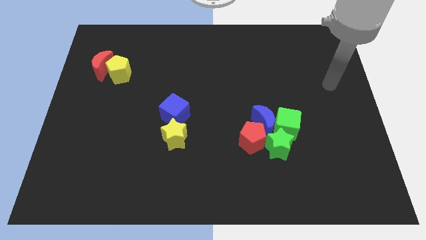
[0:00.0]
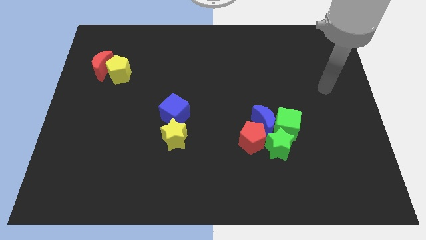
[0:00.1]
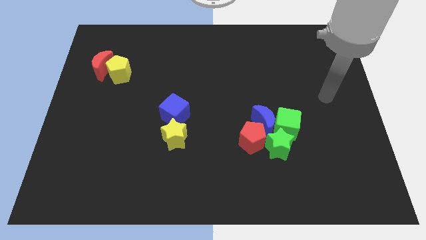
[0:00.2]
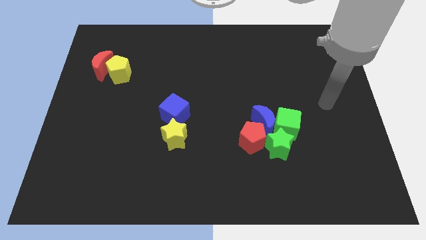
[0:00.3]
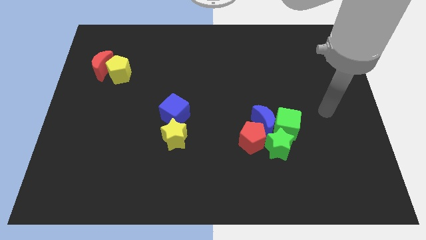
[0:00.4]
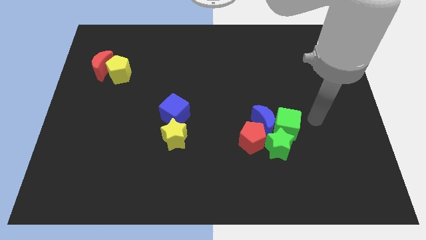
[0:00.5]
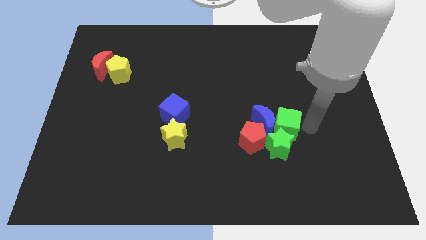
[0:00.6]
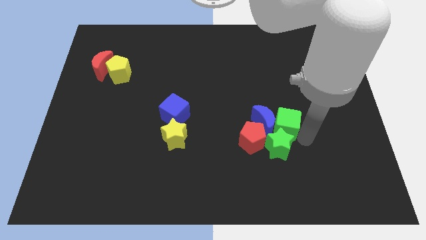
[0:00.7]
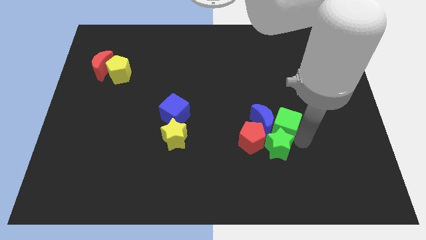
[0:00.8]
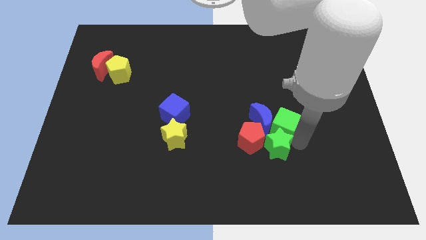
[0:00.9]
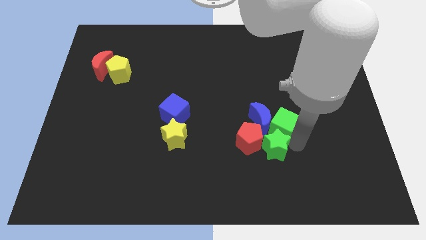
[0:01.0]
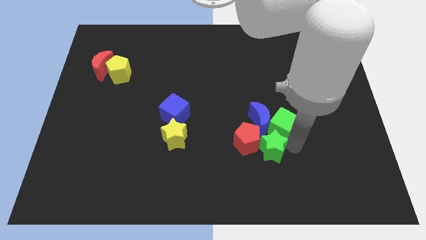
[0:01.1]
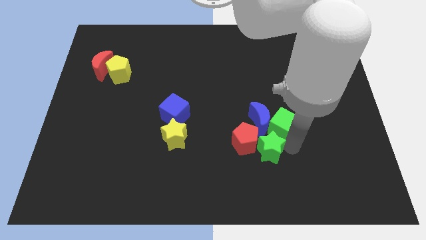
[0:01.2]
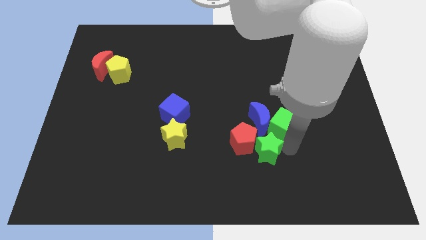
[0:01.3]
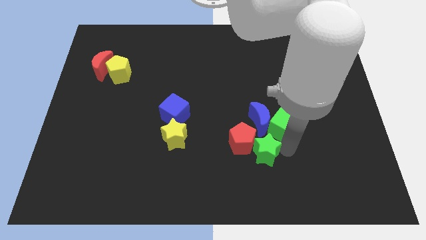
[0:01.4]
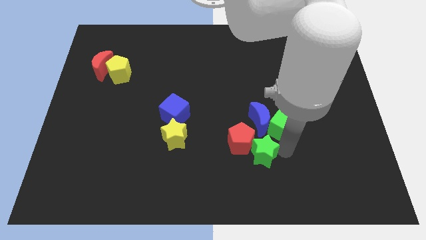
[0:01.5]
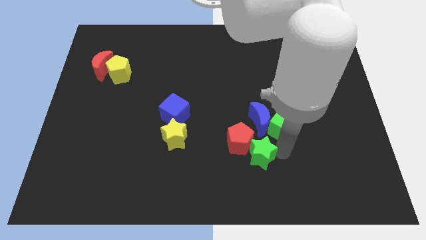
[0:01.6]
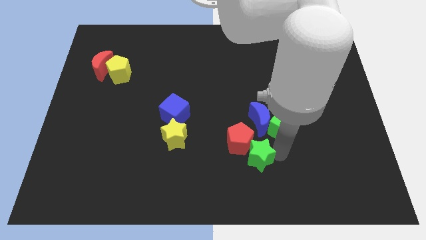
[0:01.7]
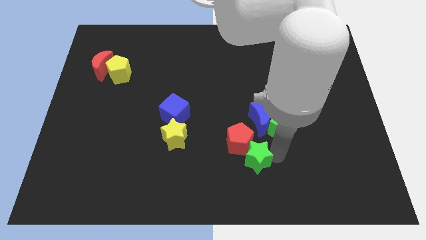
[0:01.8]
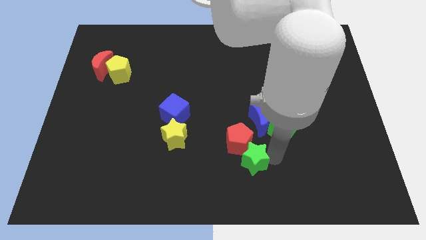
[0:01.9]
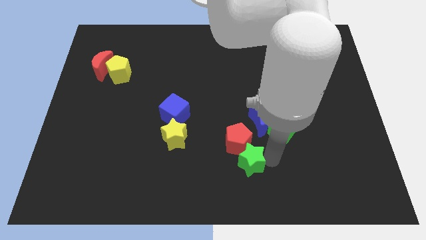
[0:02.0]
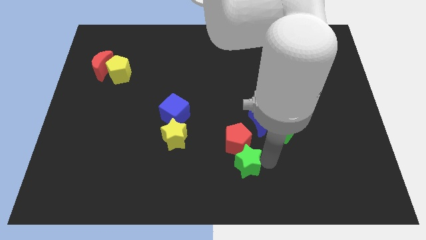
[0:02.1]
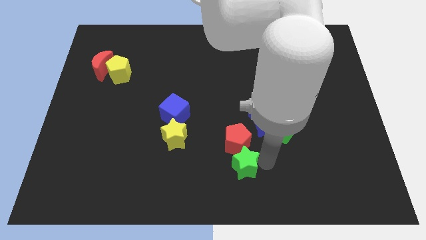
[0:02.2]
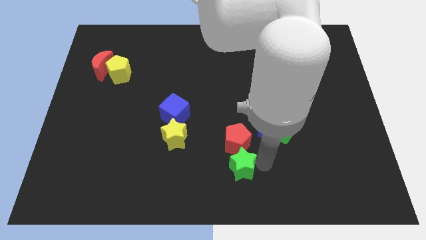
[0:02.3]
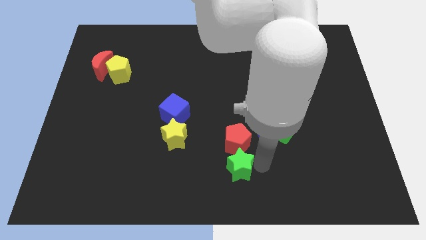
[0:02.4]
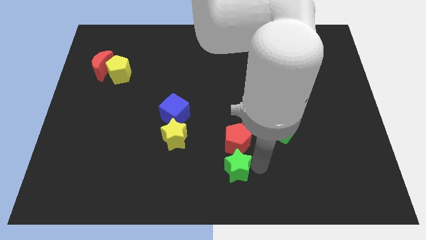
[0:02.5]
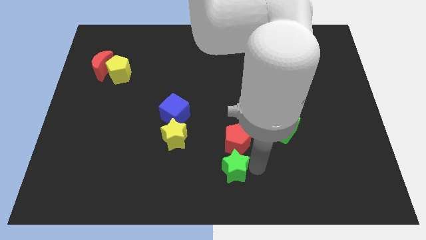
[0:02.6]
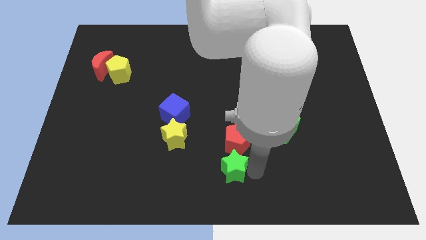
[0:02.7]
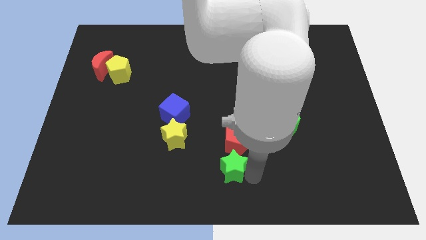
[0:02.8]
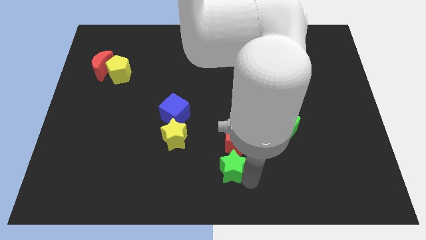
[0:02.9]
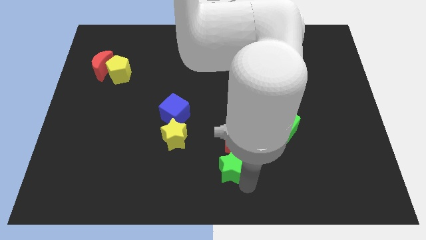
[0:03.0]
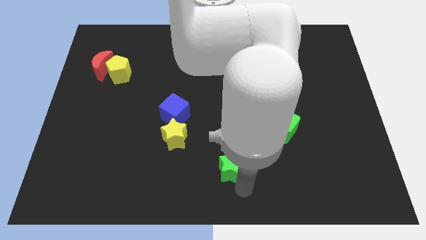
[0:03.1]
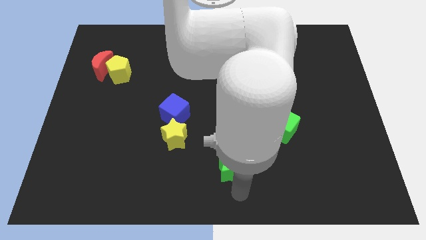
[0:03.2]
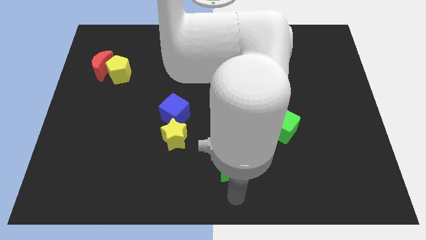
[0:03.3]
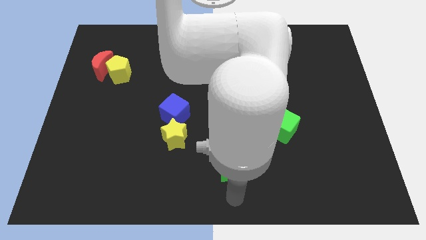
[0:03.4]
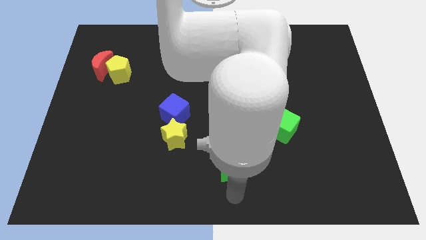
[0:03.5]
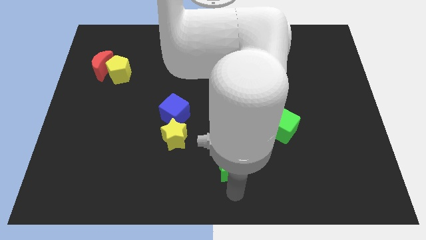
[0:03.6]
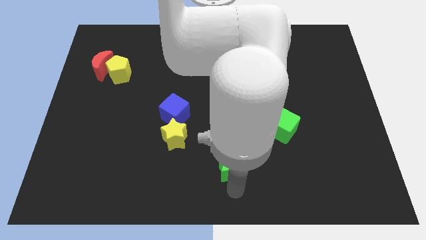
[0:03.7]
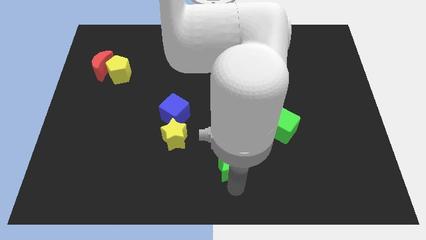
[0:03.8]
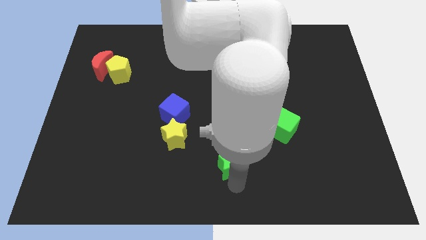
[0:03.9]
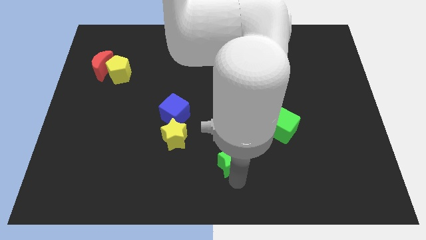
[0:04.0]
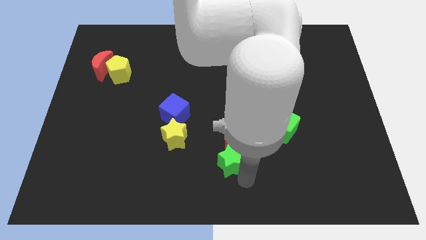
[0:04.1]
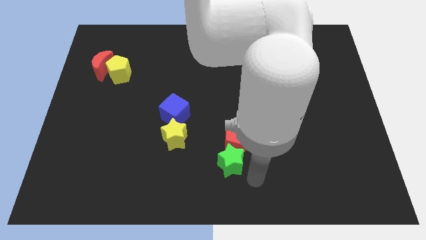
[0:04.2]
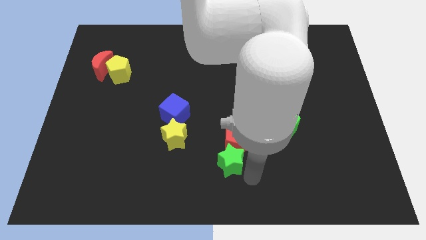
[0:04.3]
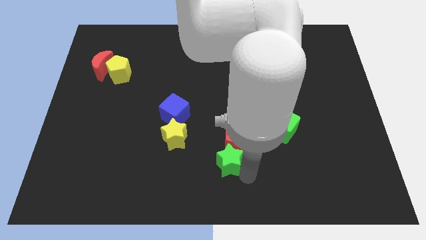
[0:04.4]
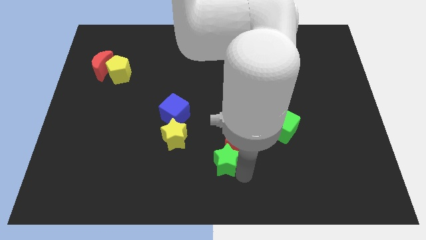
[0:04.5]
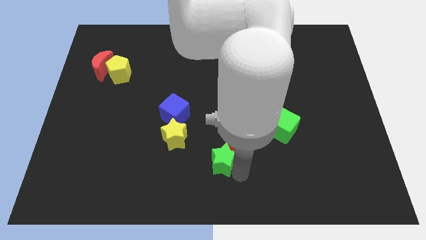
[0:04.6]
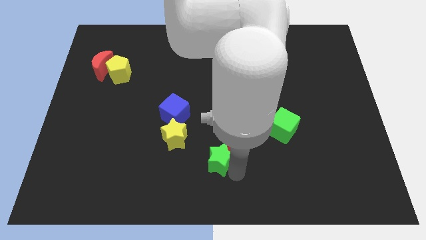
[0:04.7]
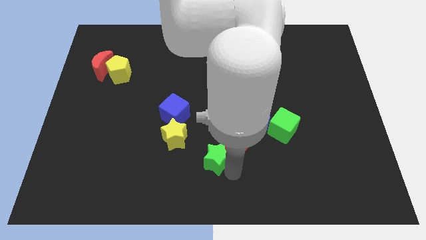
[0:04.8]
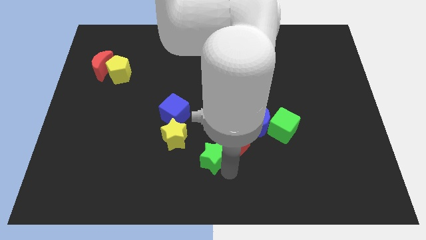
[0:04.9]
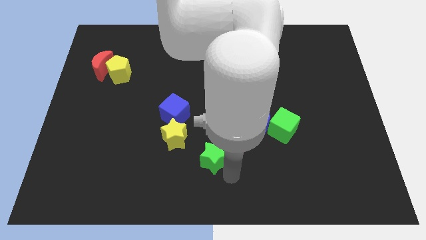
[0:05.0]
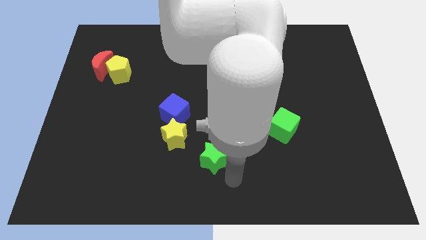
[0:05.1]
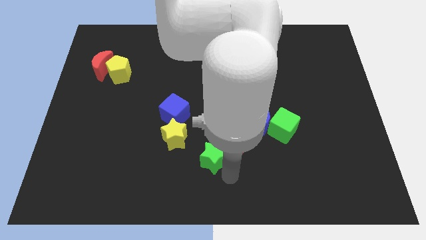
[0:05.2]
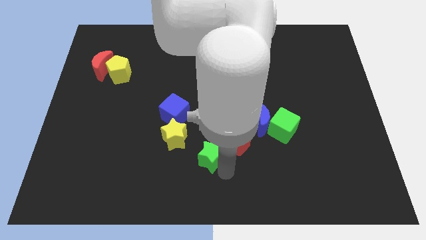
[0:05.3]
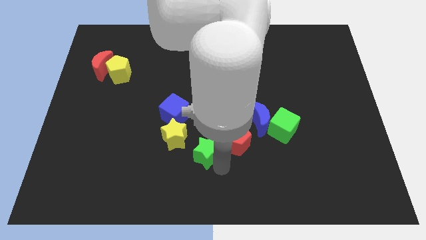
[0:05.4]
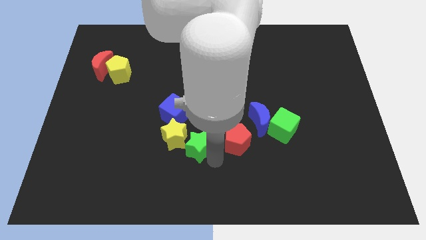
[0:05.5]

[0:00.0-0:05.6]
move the green star to the yellow star

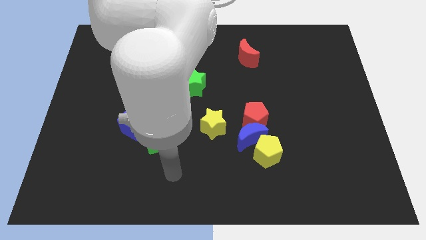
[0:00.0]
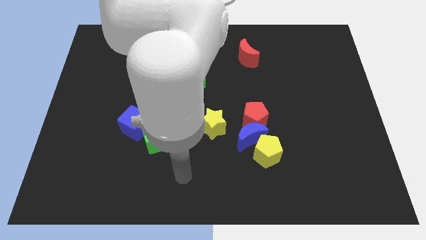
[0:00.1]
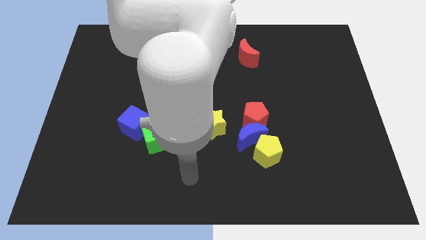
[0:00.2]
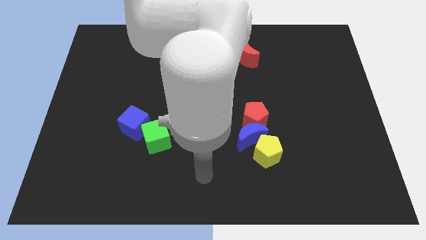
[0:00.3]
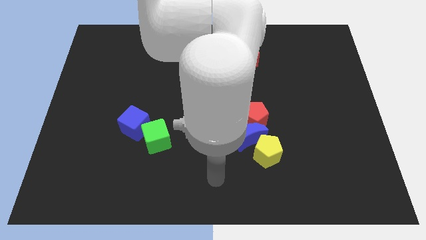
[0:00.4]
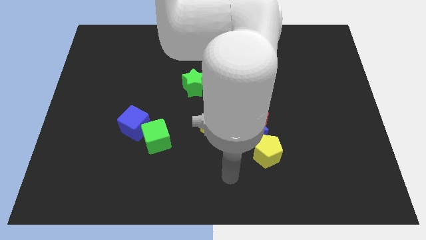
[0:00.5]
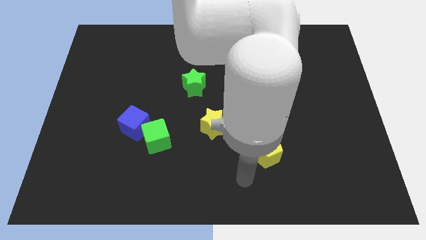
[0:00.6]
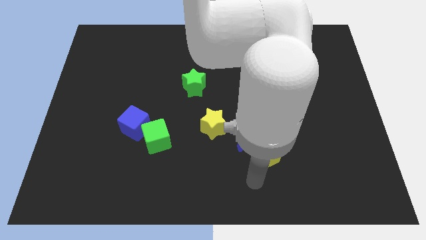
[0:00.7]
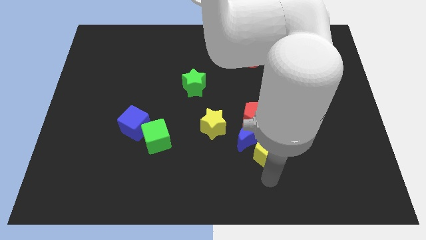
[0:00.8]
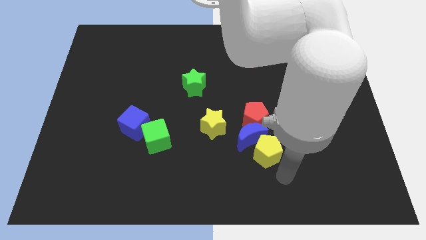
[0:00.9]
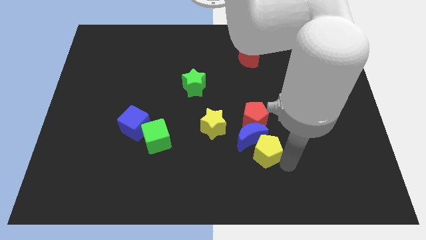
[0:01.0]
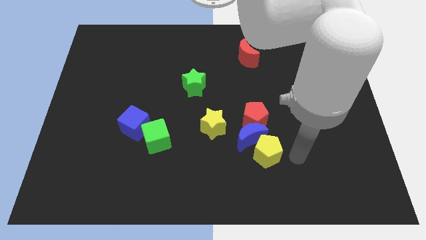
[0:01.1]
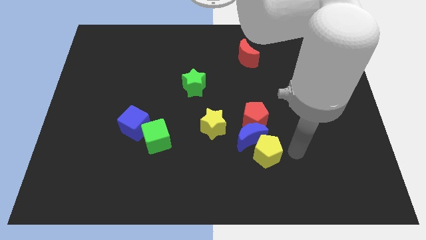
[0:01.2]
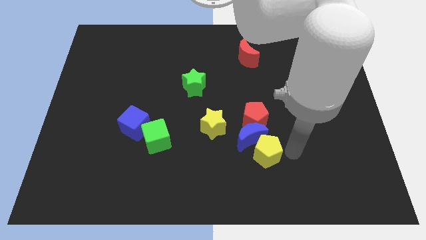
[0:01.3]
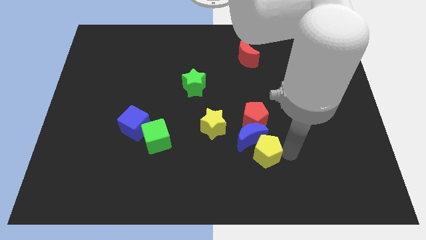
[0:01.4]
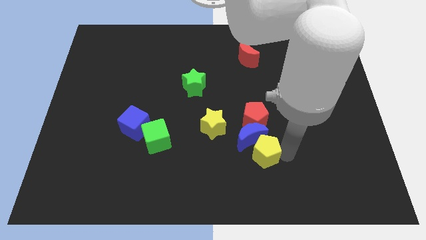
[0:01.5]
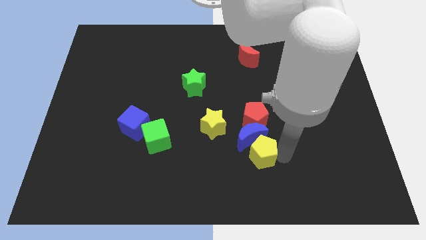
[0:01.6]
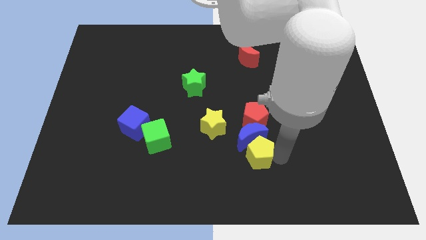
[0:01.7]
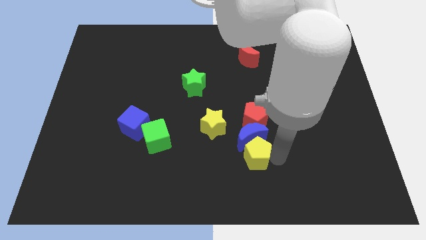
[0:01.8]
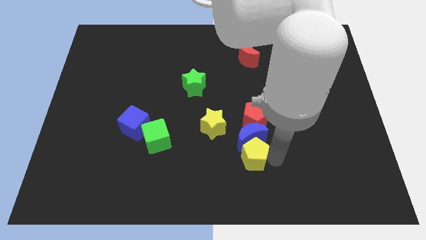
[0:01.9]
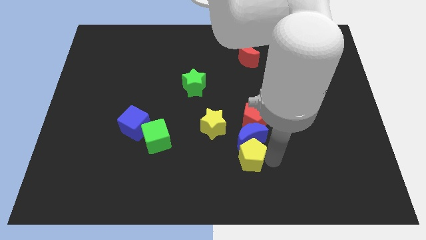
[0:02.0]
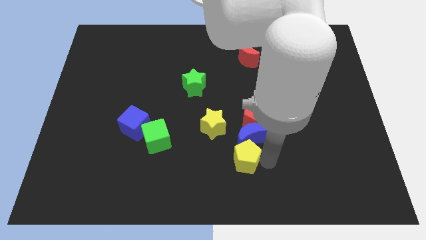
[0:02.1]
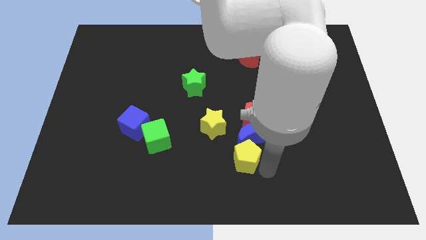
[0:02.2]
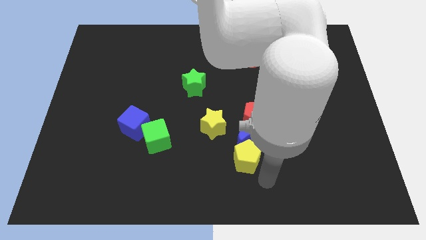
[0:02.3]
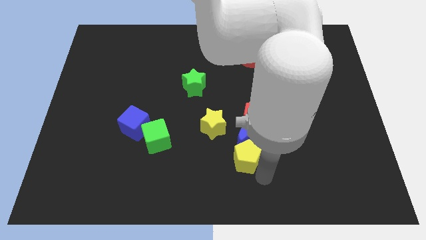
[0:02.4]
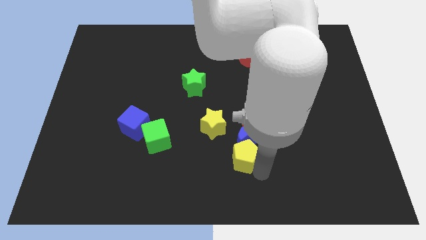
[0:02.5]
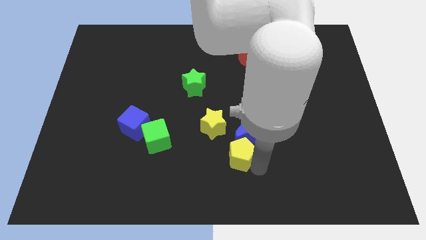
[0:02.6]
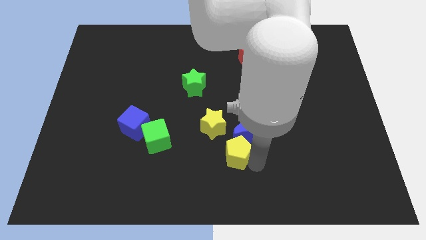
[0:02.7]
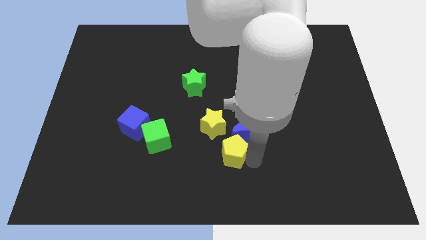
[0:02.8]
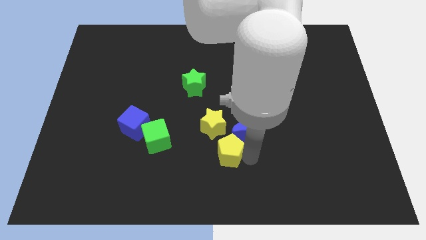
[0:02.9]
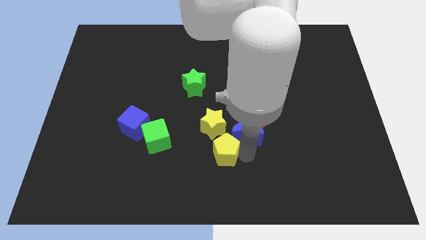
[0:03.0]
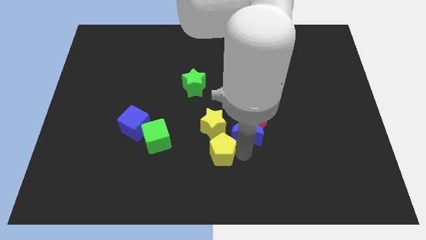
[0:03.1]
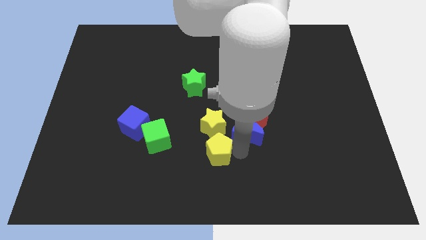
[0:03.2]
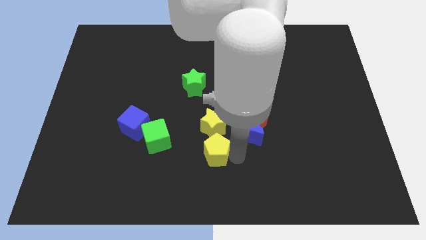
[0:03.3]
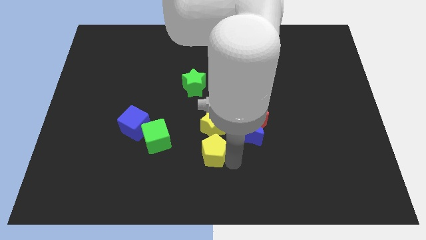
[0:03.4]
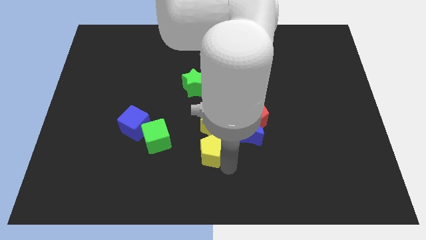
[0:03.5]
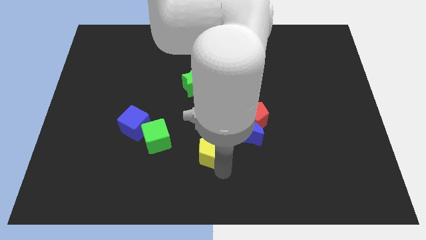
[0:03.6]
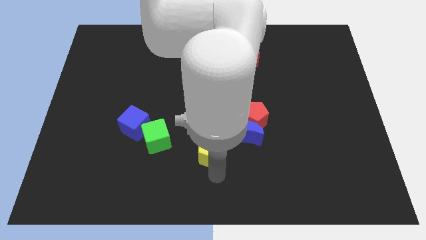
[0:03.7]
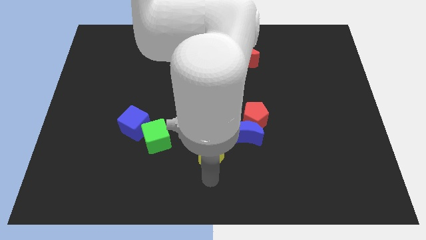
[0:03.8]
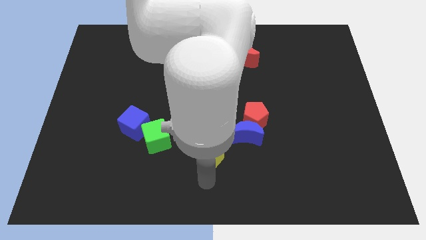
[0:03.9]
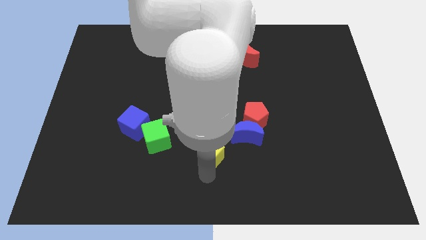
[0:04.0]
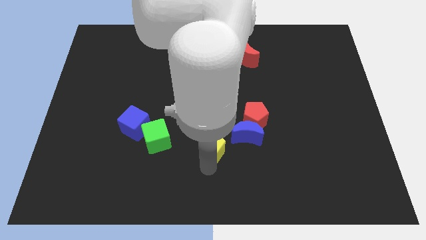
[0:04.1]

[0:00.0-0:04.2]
slide the yellow pentagon to the yellow star
